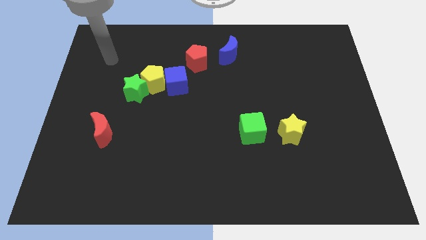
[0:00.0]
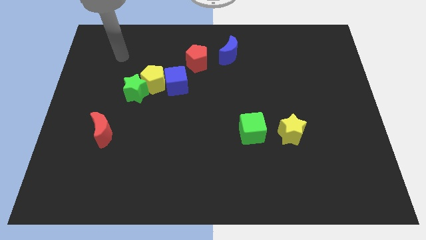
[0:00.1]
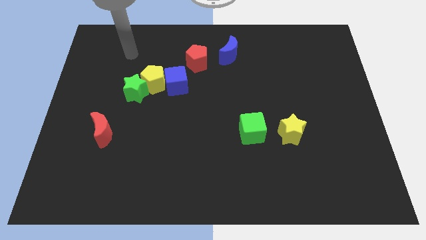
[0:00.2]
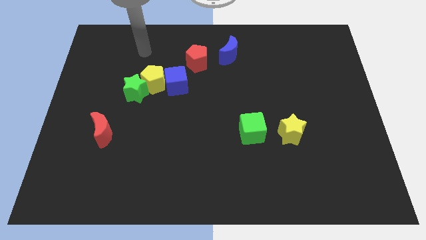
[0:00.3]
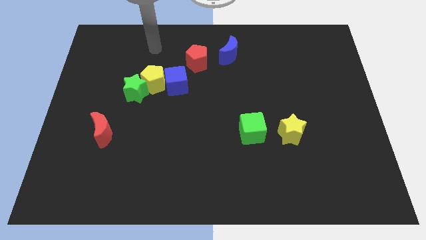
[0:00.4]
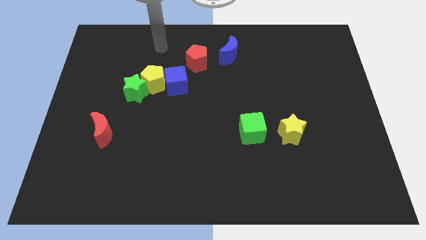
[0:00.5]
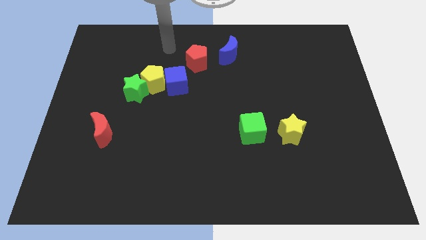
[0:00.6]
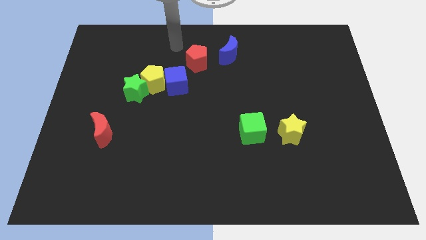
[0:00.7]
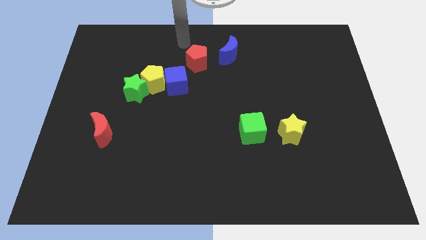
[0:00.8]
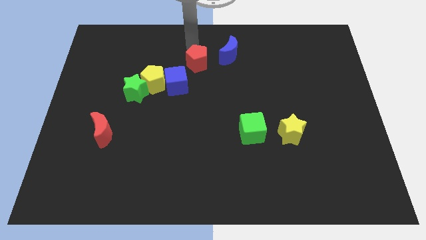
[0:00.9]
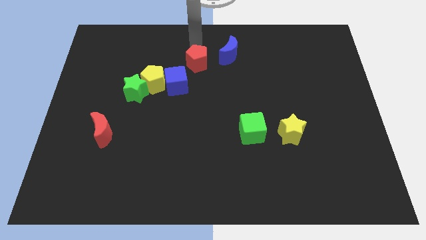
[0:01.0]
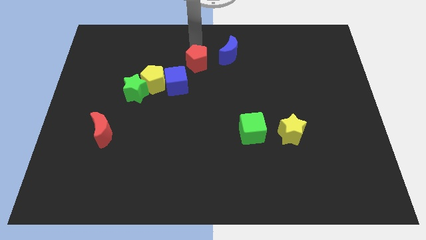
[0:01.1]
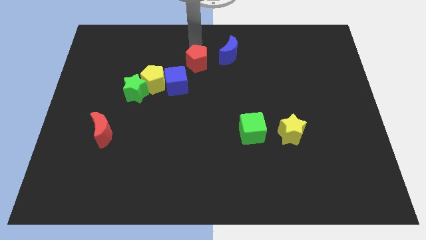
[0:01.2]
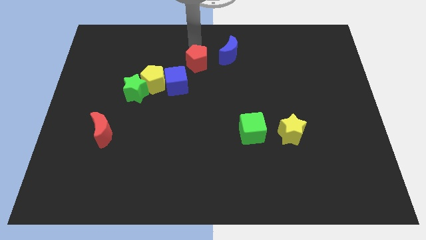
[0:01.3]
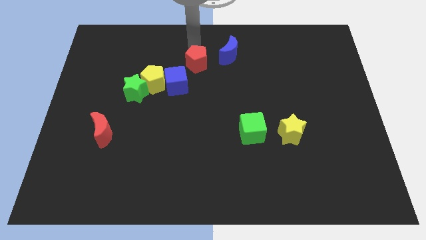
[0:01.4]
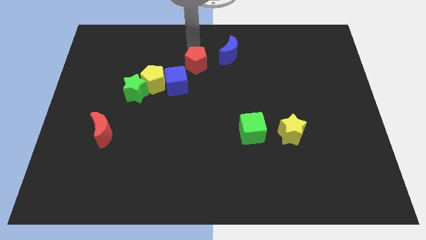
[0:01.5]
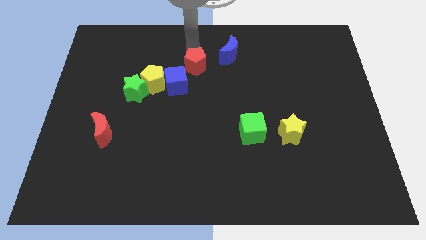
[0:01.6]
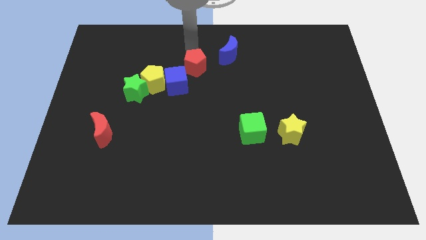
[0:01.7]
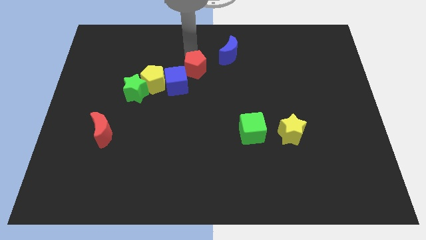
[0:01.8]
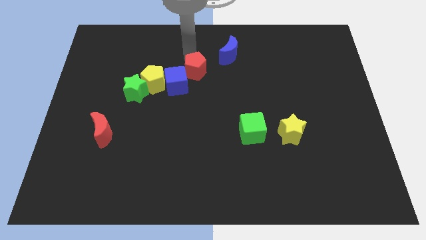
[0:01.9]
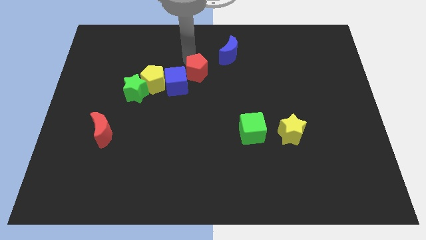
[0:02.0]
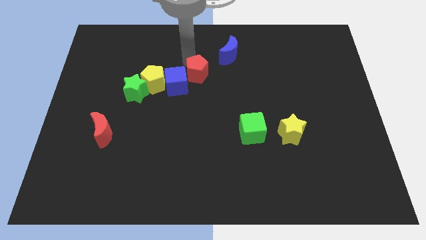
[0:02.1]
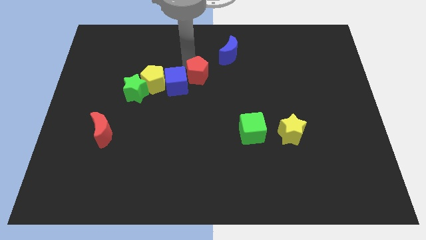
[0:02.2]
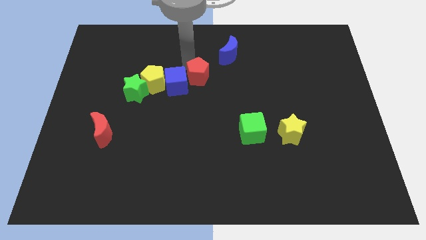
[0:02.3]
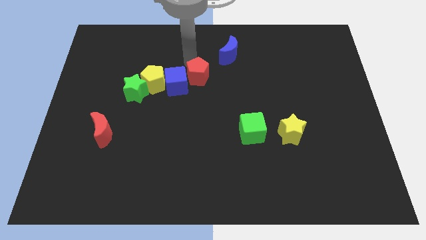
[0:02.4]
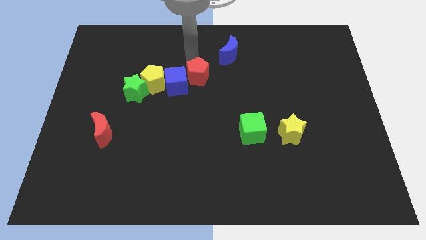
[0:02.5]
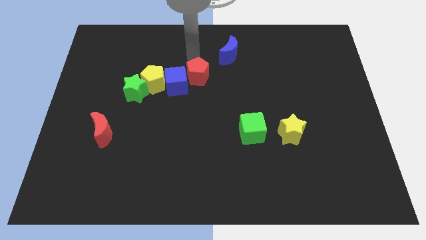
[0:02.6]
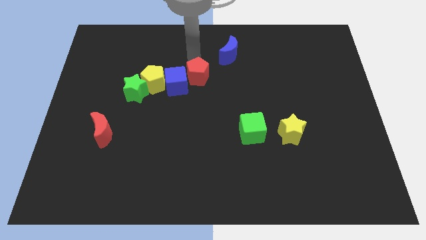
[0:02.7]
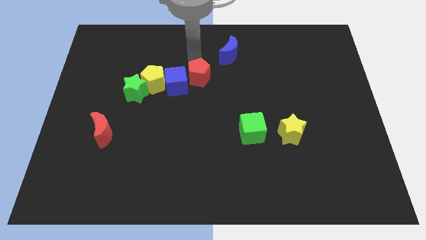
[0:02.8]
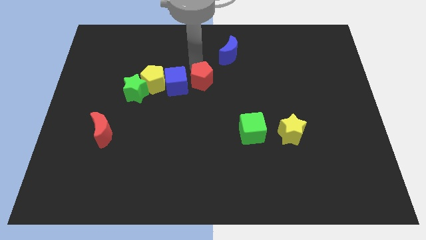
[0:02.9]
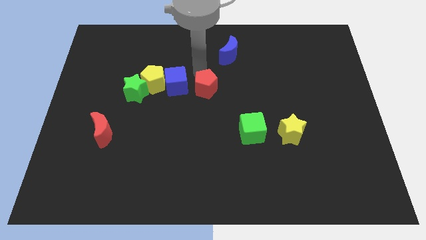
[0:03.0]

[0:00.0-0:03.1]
move the red pentagon downwards a bit

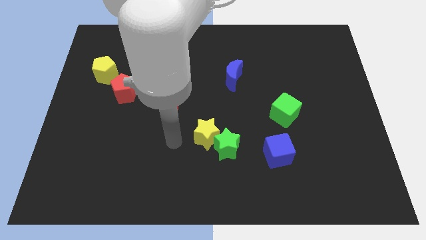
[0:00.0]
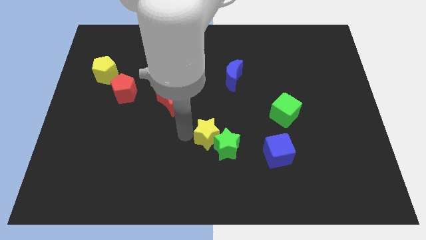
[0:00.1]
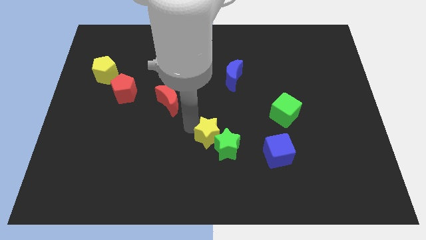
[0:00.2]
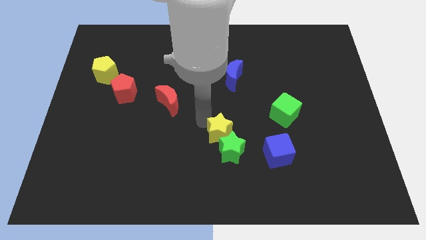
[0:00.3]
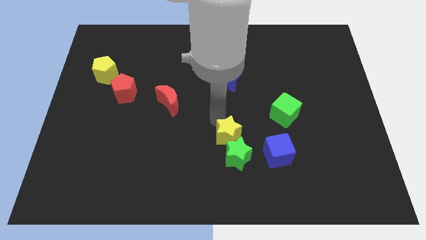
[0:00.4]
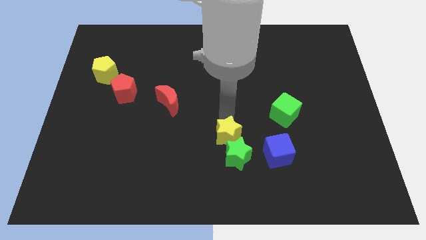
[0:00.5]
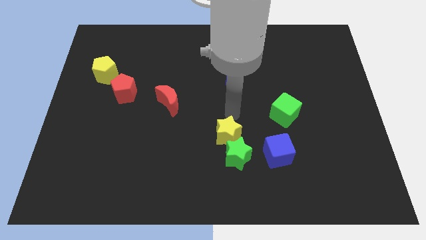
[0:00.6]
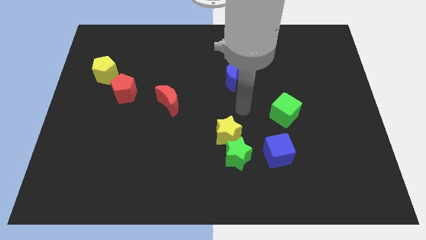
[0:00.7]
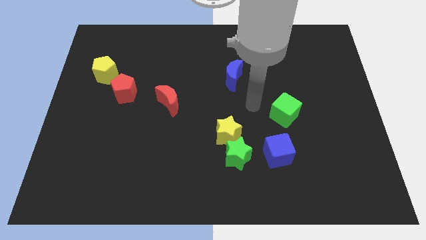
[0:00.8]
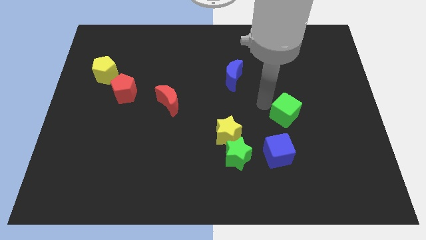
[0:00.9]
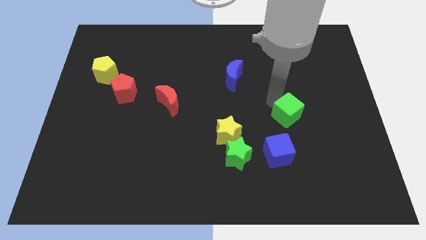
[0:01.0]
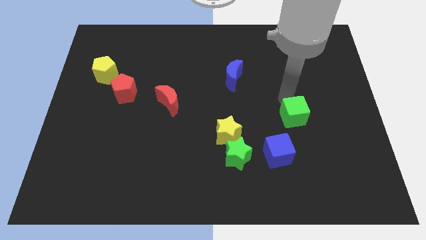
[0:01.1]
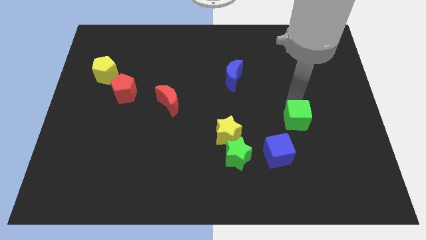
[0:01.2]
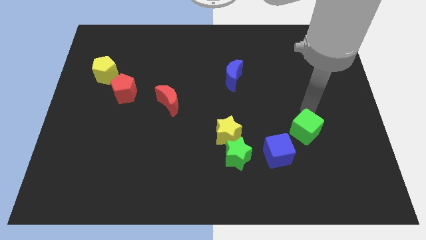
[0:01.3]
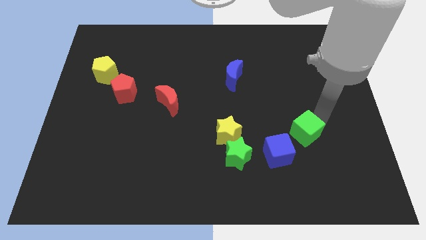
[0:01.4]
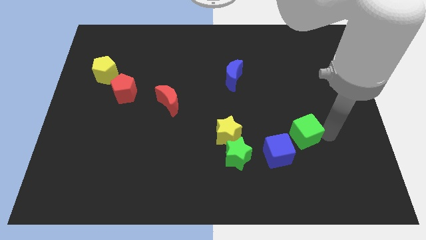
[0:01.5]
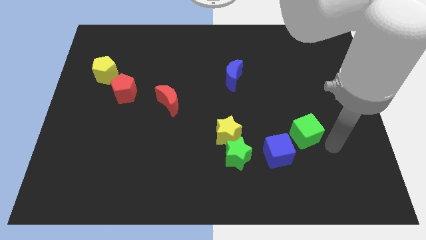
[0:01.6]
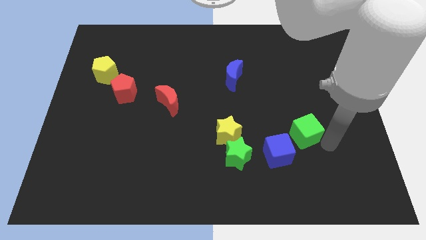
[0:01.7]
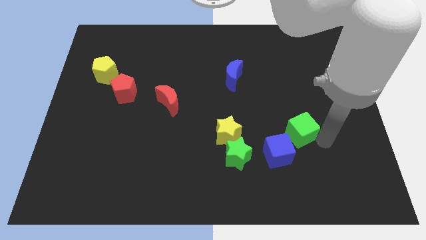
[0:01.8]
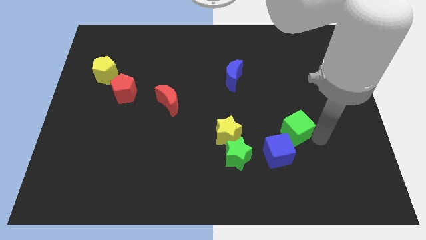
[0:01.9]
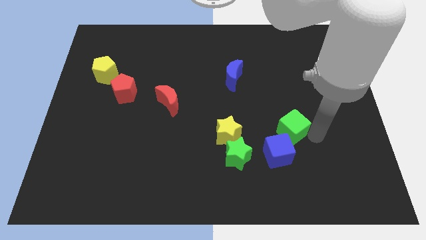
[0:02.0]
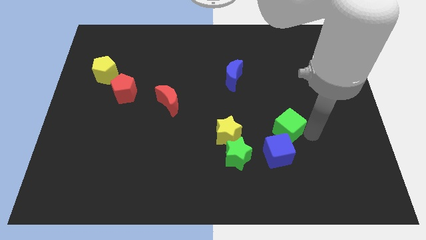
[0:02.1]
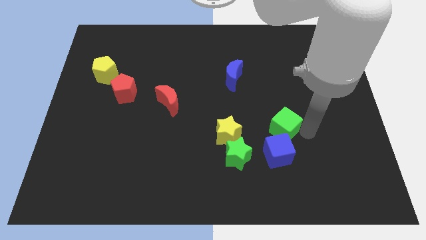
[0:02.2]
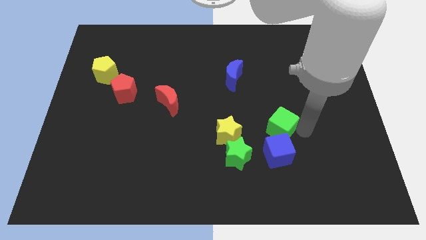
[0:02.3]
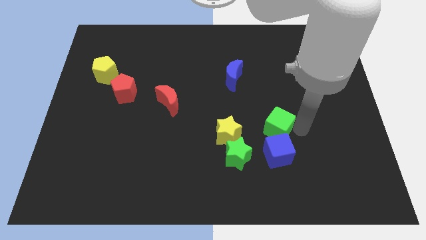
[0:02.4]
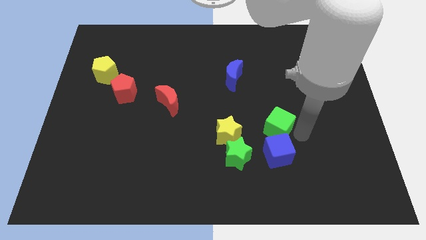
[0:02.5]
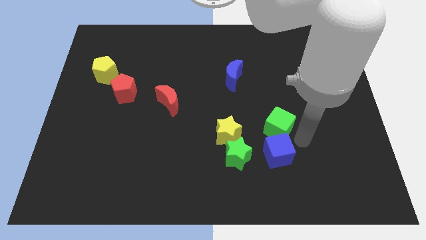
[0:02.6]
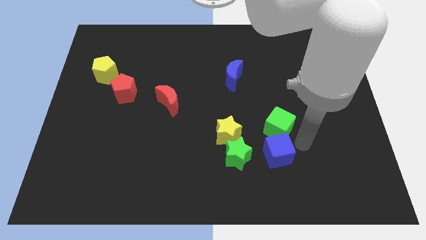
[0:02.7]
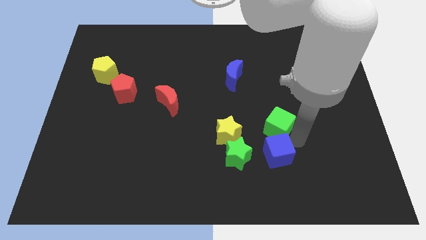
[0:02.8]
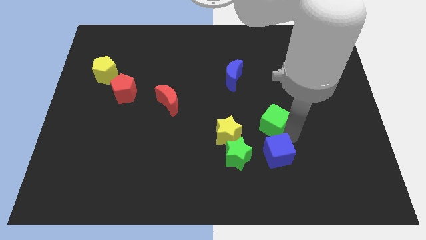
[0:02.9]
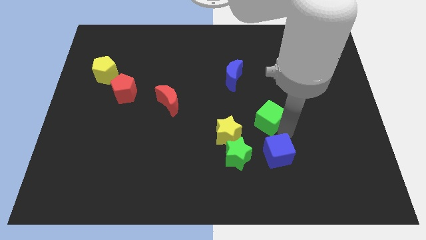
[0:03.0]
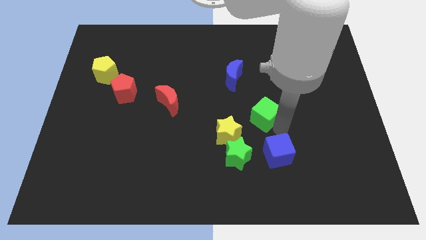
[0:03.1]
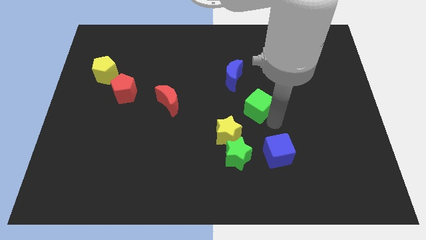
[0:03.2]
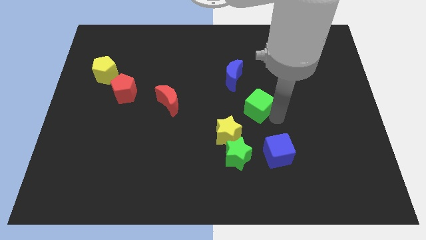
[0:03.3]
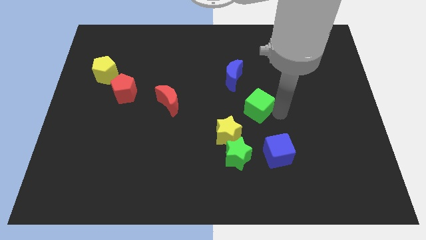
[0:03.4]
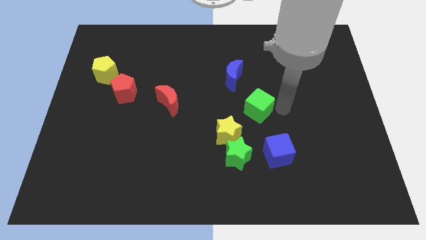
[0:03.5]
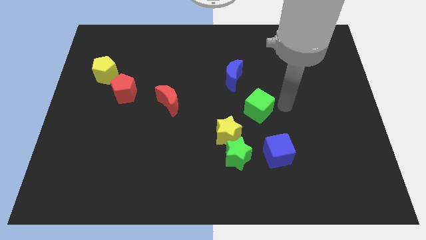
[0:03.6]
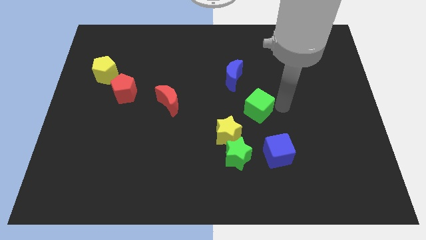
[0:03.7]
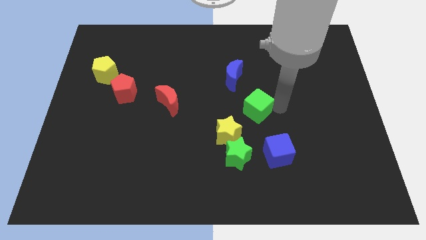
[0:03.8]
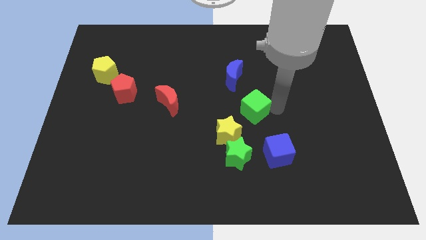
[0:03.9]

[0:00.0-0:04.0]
slide the green cube a bit left

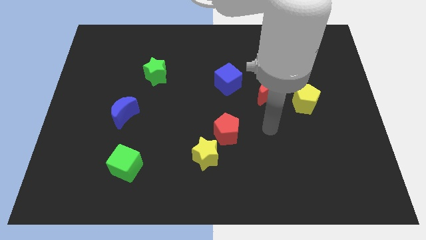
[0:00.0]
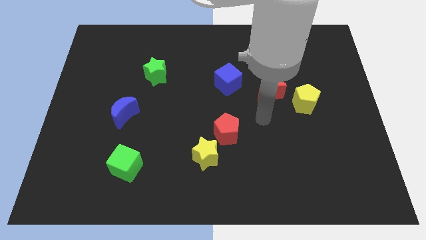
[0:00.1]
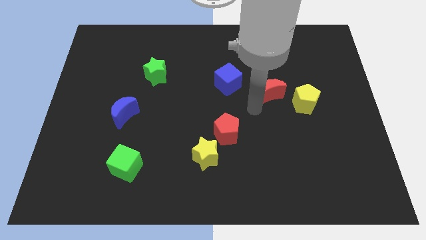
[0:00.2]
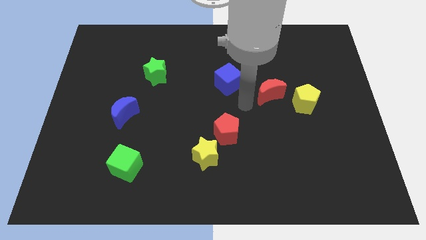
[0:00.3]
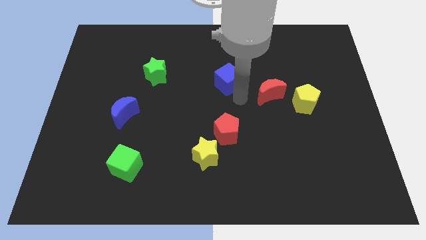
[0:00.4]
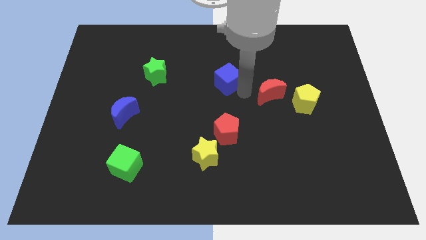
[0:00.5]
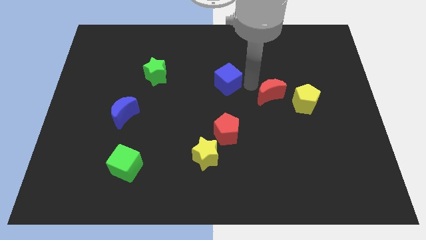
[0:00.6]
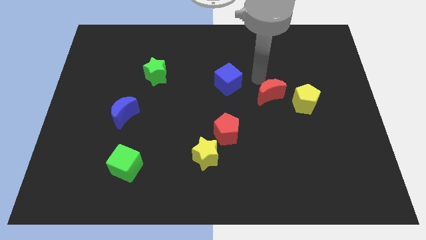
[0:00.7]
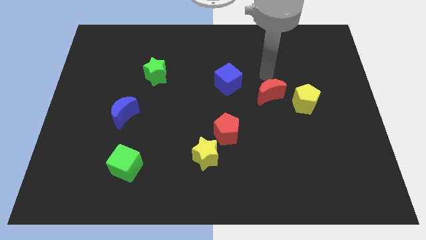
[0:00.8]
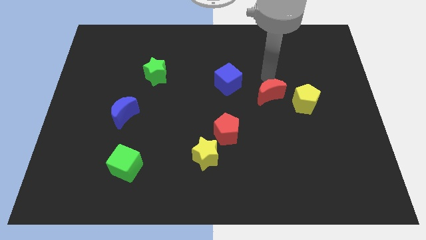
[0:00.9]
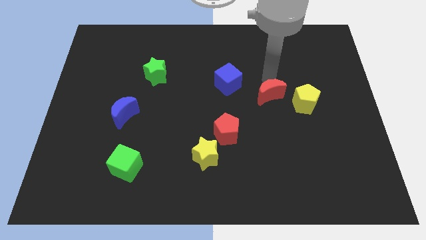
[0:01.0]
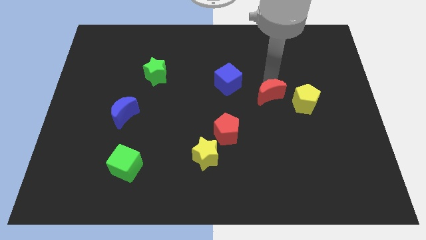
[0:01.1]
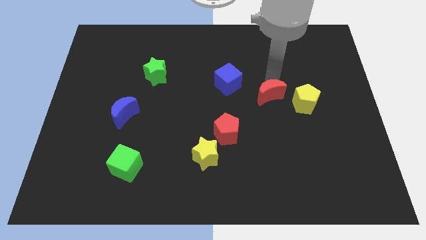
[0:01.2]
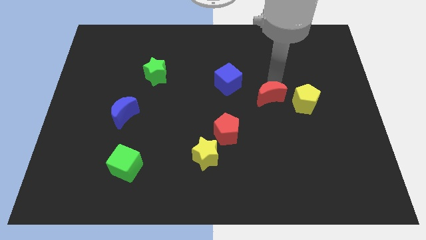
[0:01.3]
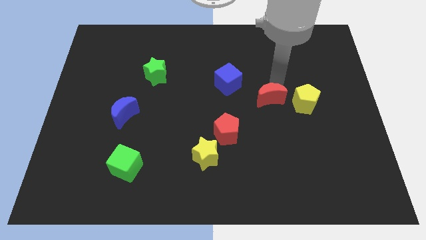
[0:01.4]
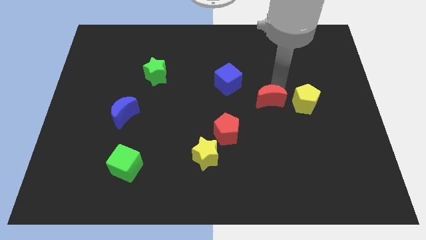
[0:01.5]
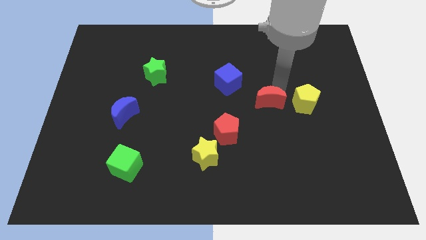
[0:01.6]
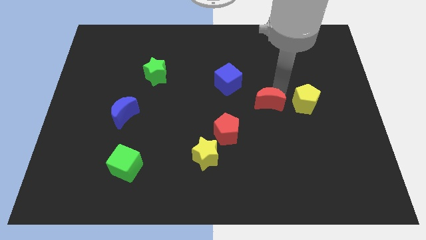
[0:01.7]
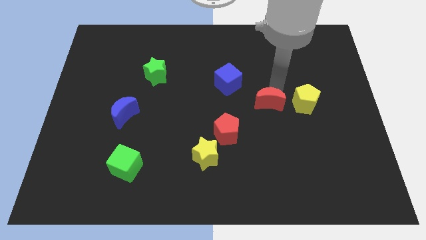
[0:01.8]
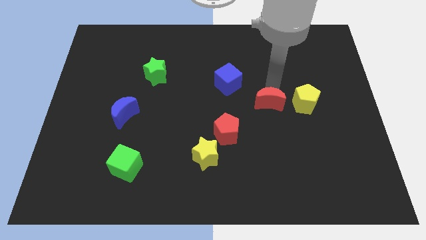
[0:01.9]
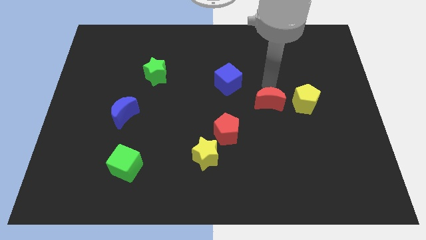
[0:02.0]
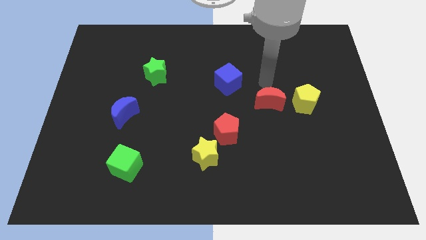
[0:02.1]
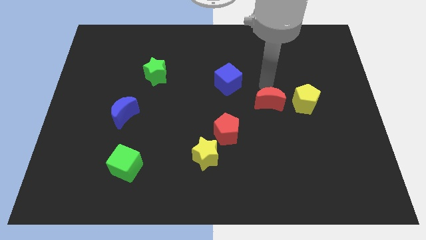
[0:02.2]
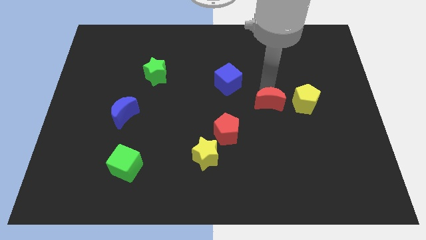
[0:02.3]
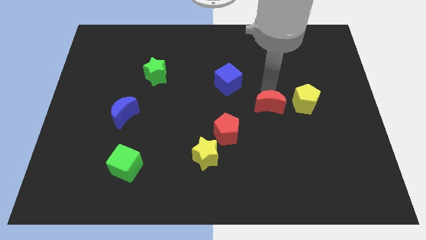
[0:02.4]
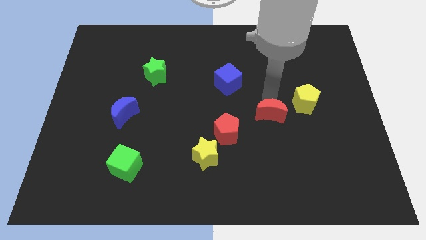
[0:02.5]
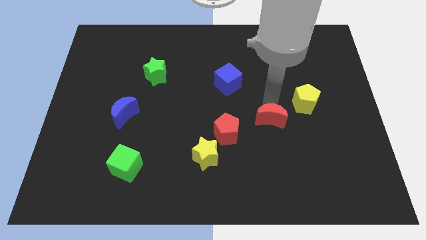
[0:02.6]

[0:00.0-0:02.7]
slide the red moon a little bit downwards
